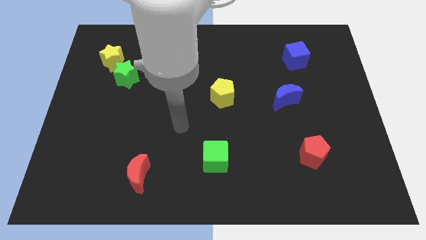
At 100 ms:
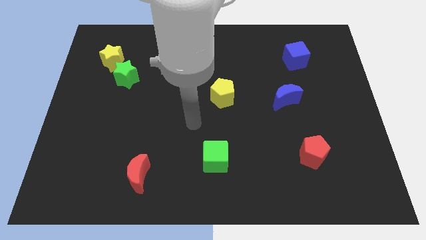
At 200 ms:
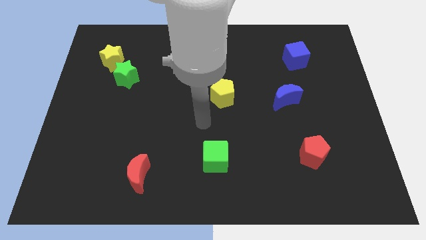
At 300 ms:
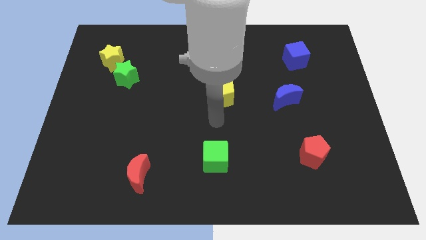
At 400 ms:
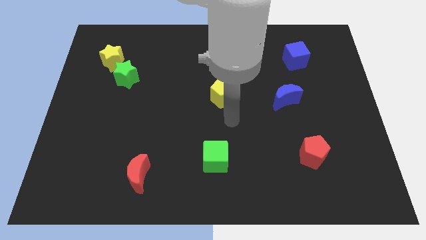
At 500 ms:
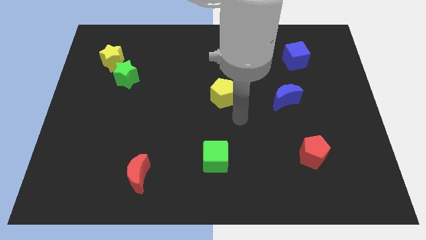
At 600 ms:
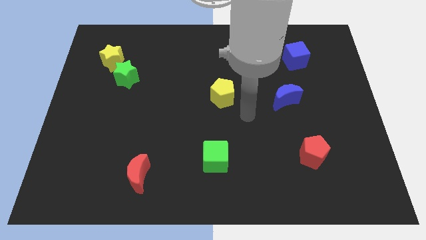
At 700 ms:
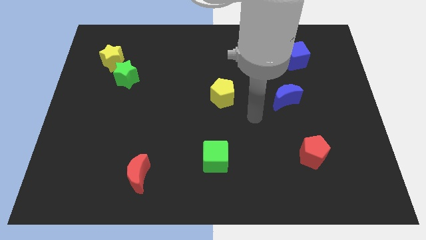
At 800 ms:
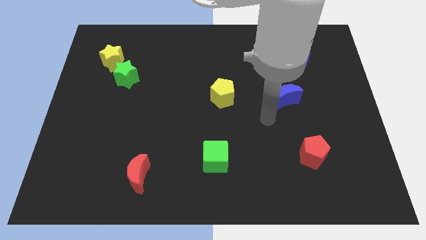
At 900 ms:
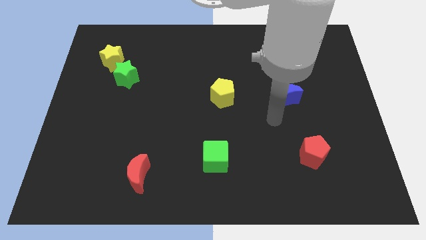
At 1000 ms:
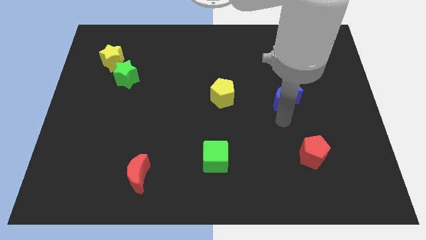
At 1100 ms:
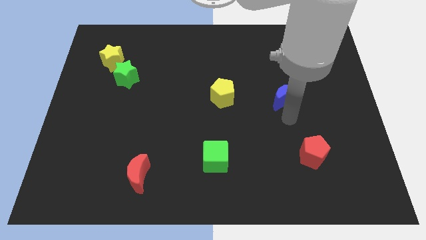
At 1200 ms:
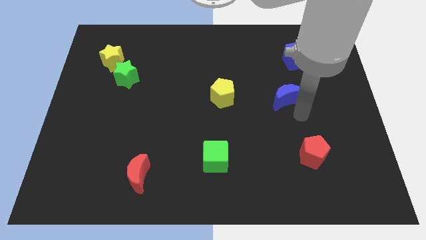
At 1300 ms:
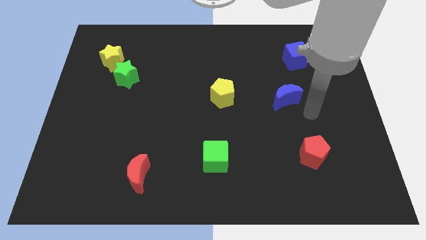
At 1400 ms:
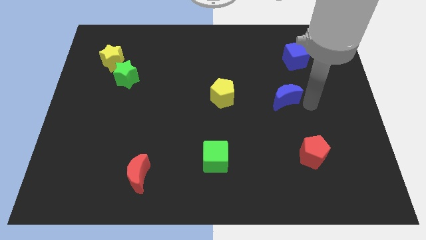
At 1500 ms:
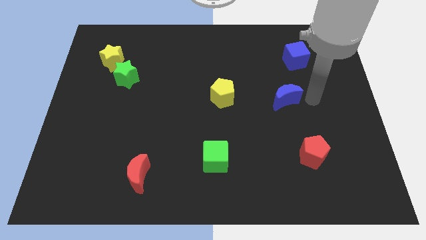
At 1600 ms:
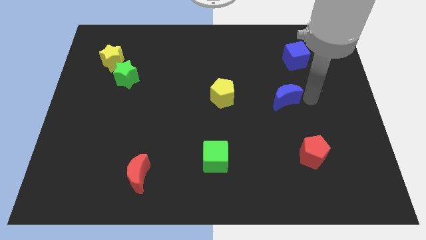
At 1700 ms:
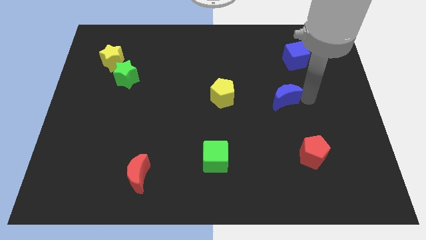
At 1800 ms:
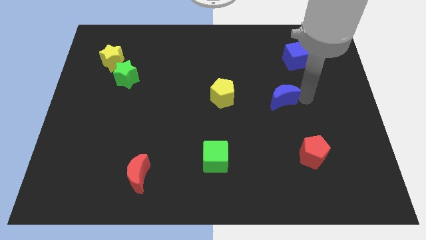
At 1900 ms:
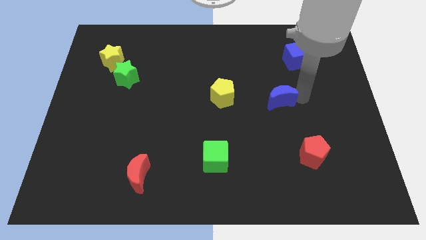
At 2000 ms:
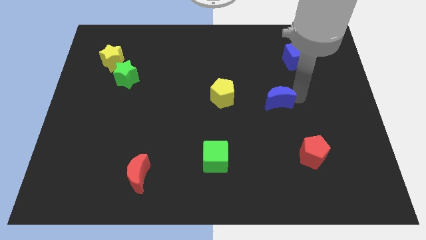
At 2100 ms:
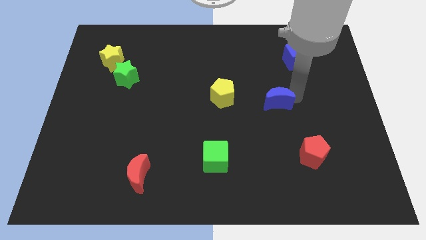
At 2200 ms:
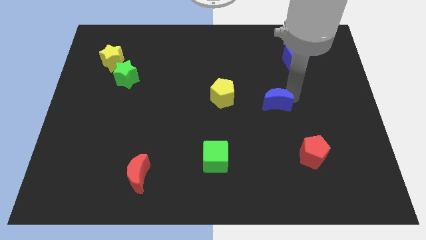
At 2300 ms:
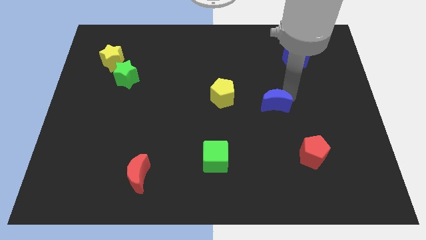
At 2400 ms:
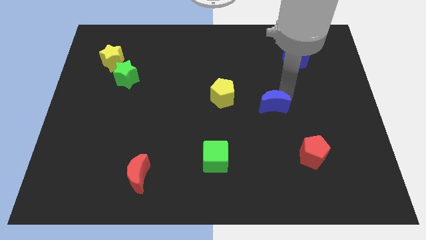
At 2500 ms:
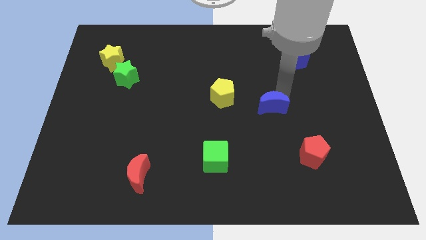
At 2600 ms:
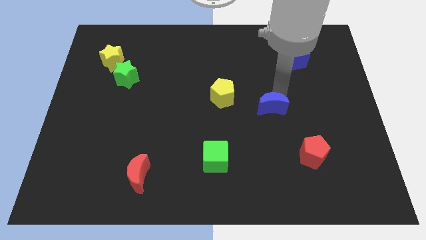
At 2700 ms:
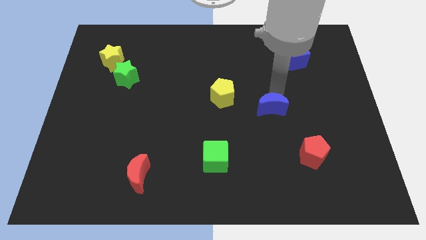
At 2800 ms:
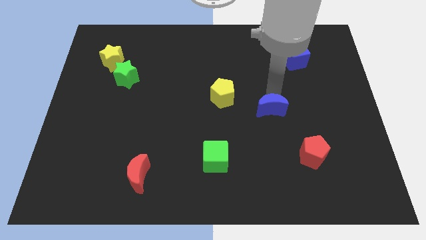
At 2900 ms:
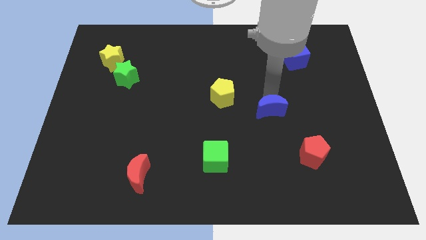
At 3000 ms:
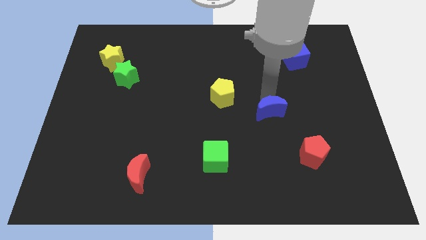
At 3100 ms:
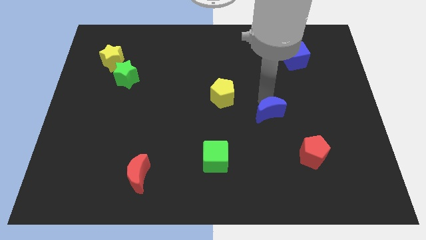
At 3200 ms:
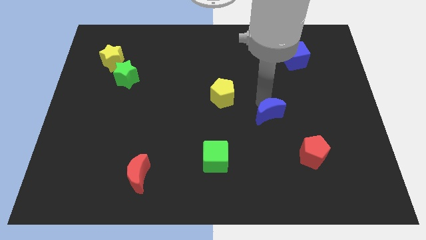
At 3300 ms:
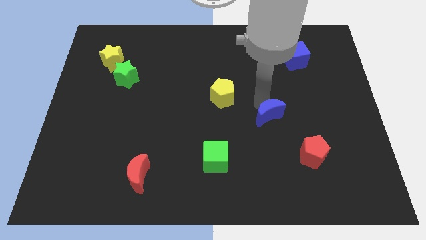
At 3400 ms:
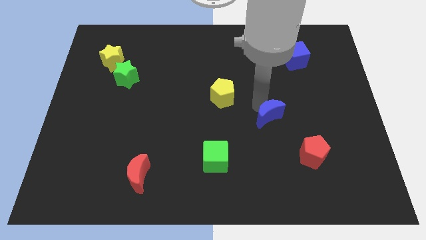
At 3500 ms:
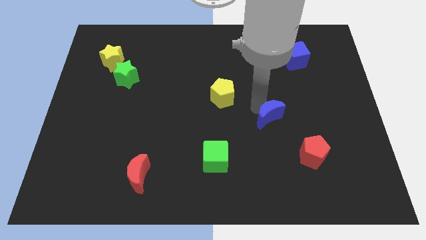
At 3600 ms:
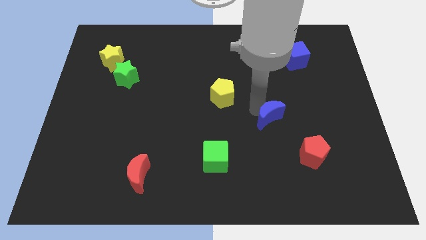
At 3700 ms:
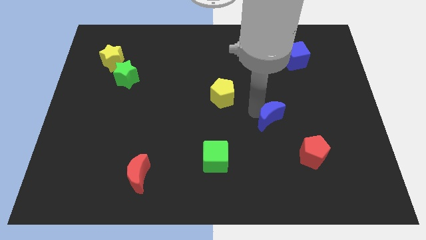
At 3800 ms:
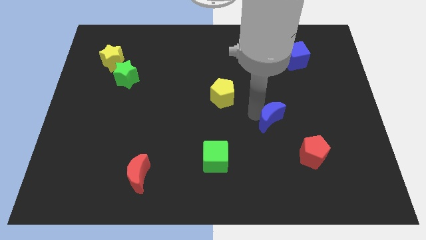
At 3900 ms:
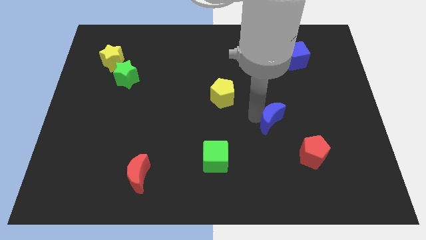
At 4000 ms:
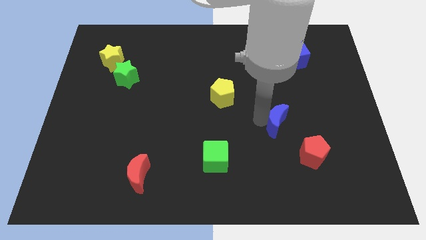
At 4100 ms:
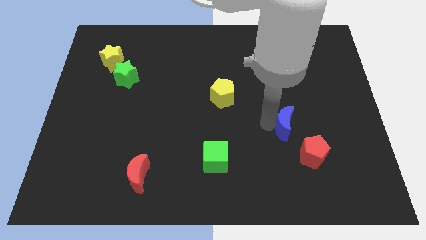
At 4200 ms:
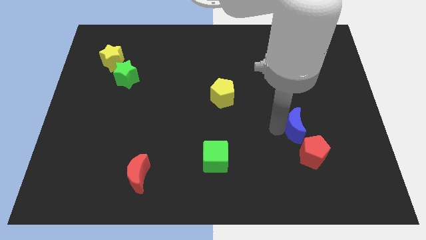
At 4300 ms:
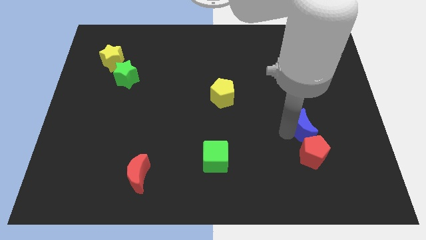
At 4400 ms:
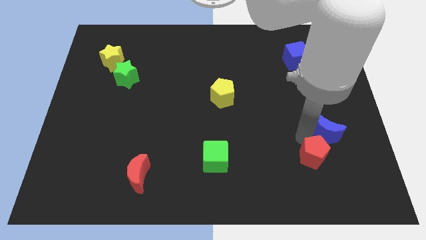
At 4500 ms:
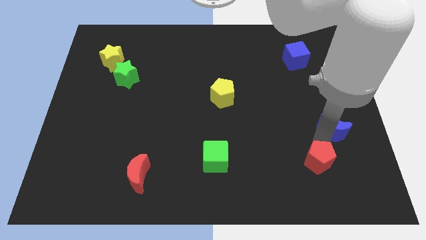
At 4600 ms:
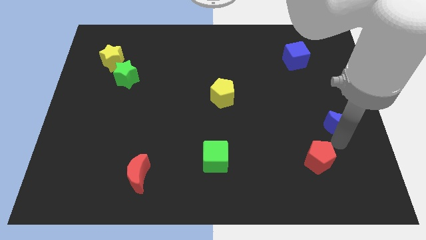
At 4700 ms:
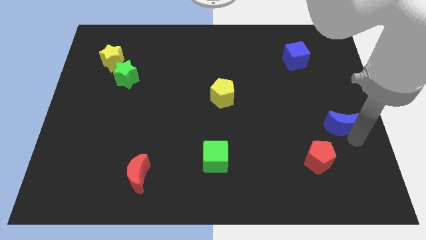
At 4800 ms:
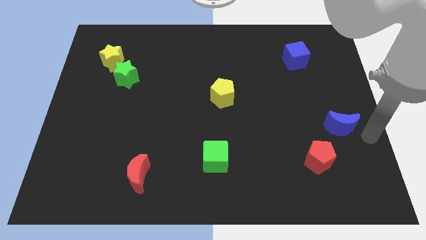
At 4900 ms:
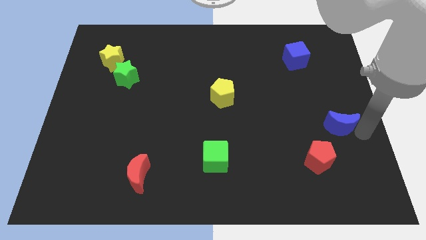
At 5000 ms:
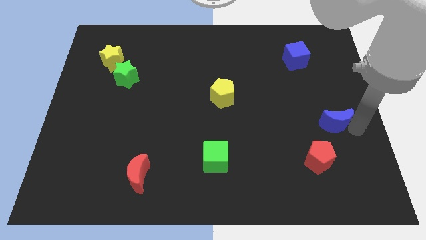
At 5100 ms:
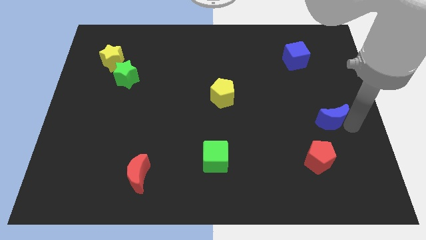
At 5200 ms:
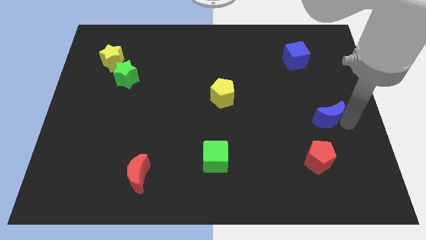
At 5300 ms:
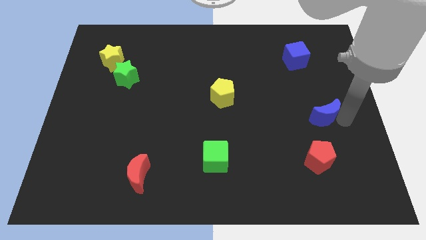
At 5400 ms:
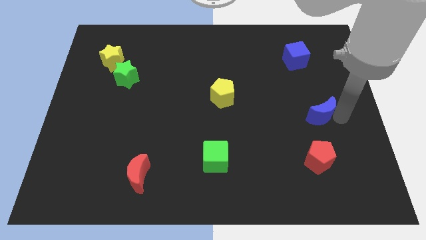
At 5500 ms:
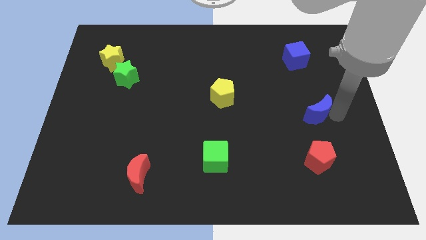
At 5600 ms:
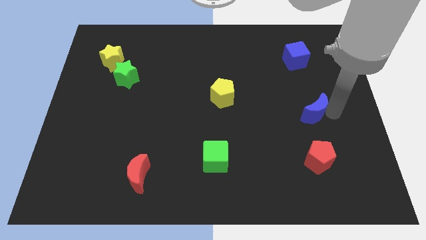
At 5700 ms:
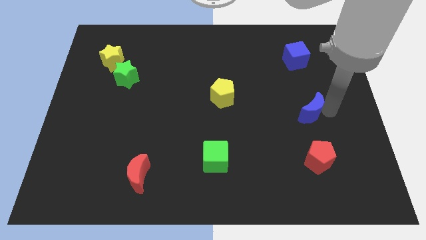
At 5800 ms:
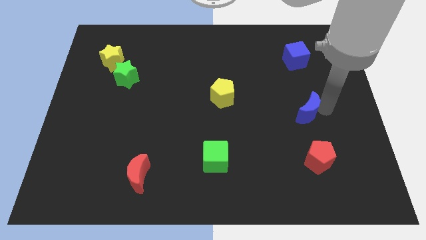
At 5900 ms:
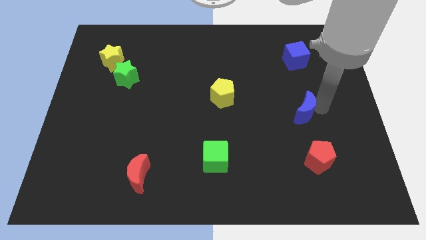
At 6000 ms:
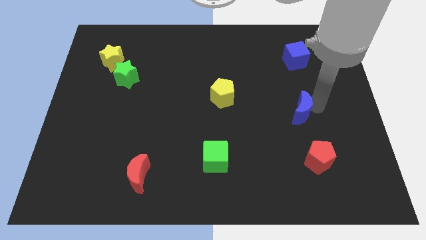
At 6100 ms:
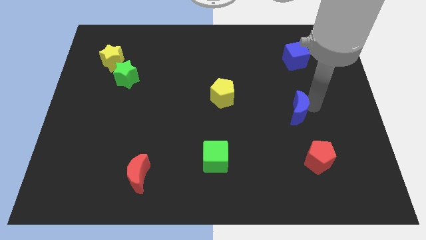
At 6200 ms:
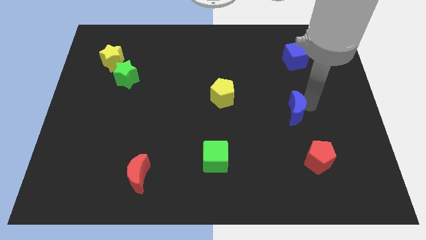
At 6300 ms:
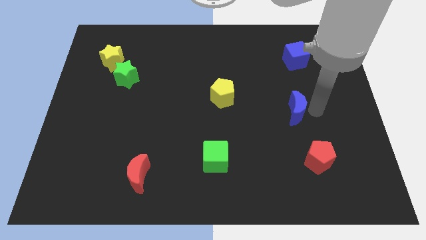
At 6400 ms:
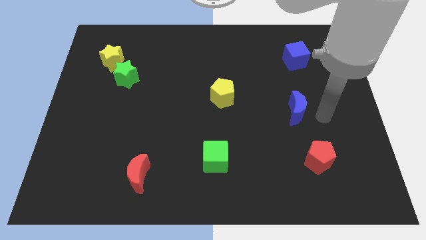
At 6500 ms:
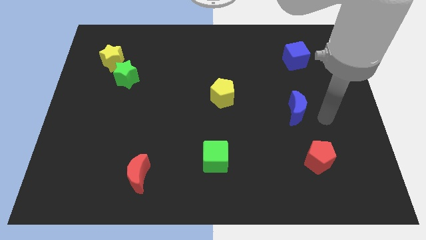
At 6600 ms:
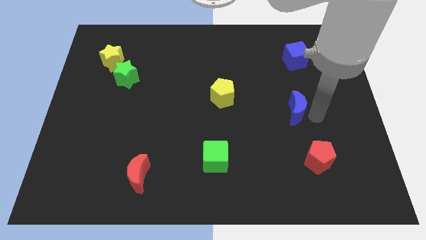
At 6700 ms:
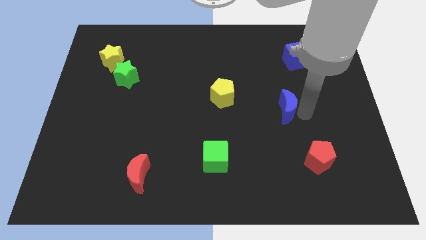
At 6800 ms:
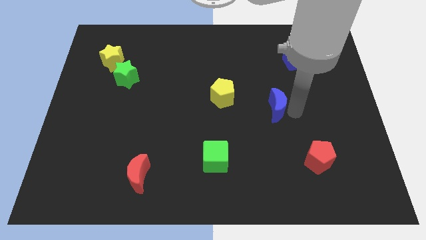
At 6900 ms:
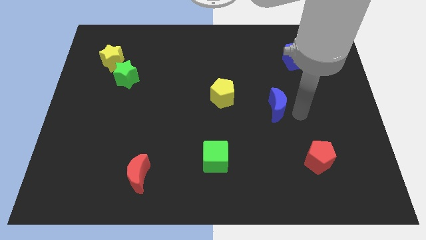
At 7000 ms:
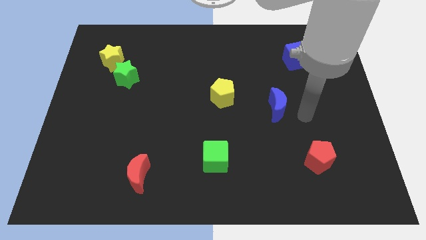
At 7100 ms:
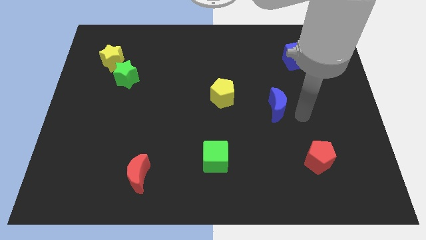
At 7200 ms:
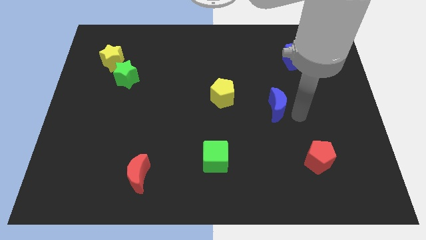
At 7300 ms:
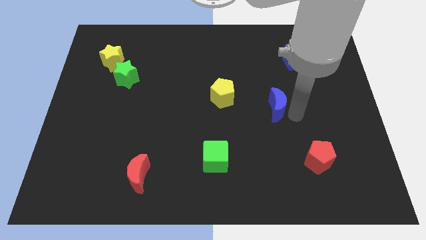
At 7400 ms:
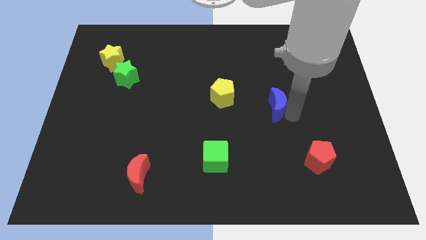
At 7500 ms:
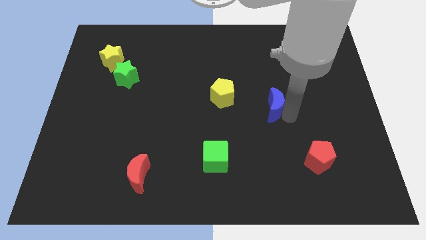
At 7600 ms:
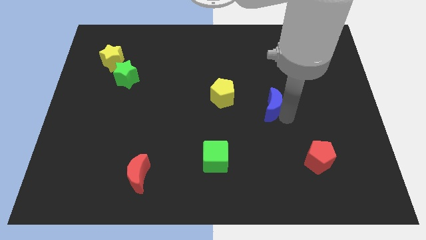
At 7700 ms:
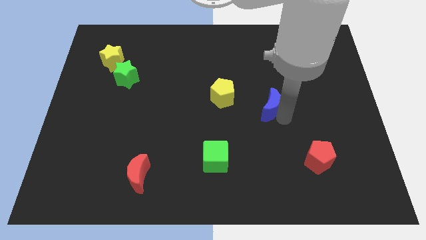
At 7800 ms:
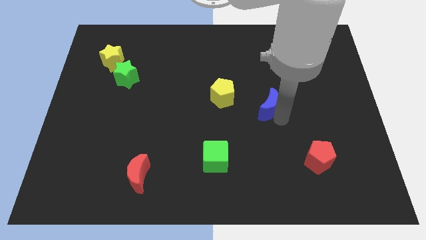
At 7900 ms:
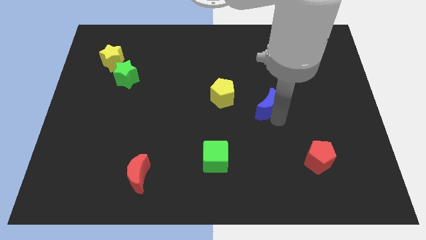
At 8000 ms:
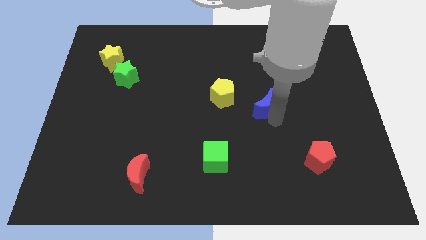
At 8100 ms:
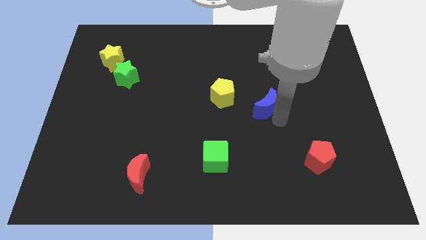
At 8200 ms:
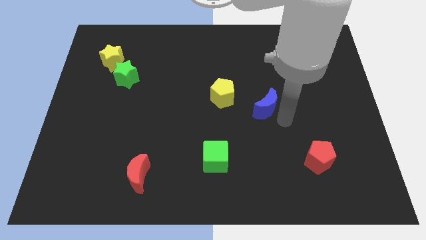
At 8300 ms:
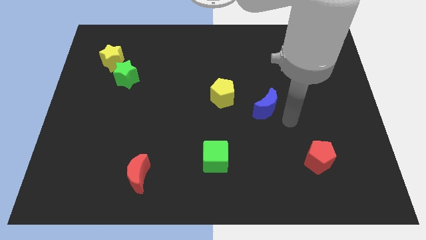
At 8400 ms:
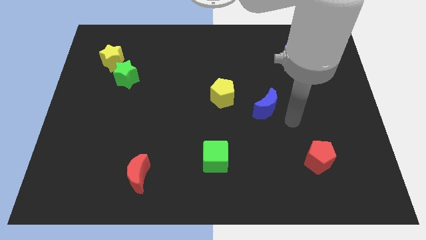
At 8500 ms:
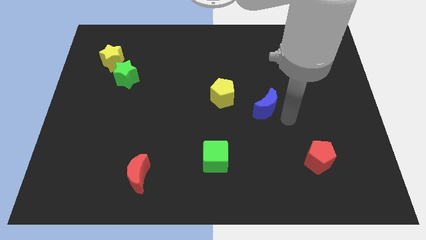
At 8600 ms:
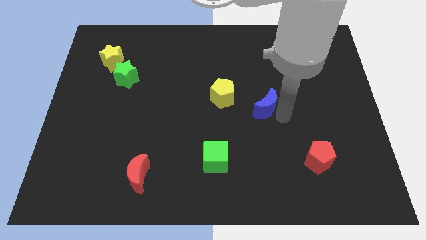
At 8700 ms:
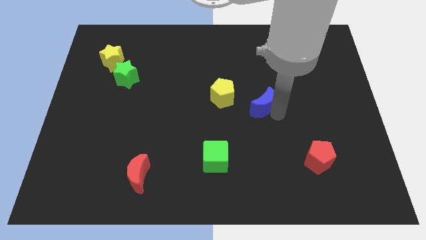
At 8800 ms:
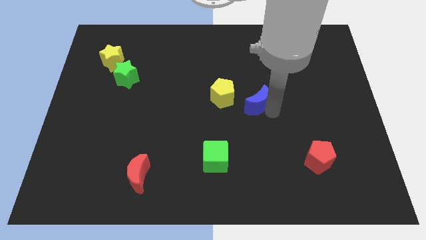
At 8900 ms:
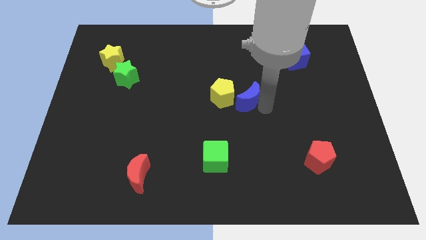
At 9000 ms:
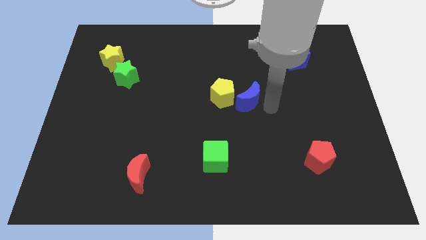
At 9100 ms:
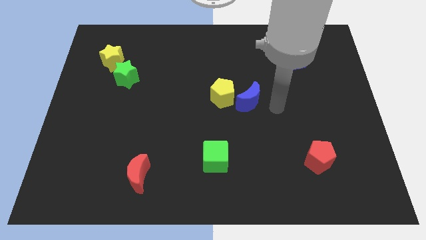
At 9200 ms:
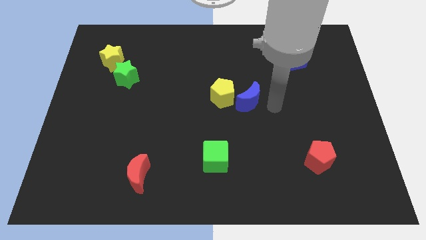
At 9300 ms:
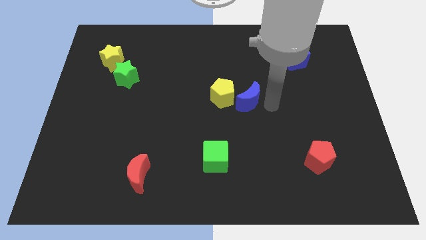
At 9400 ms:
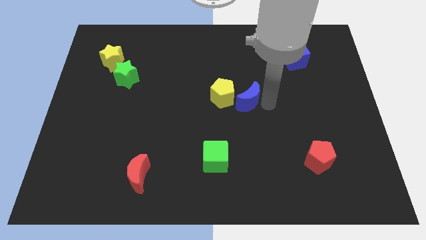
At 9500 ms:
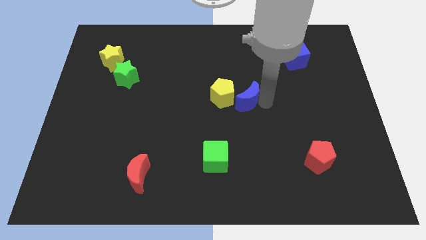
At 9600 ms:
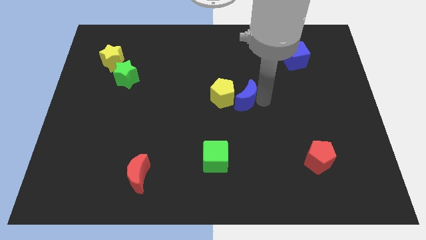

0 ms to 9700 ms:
put the blue moon to the yellow pentagon
